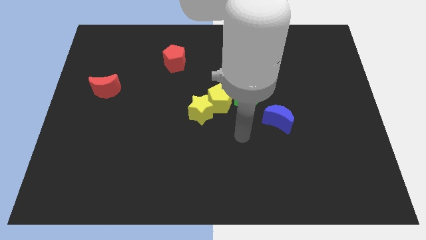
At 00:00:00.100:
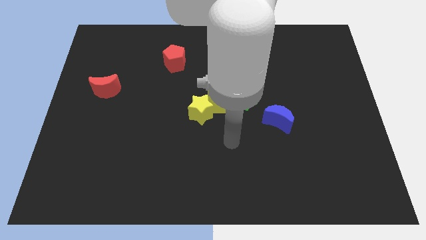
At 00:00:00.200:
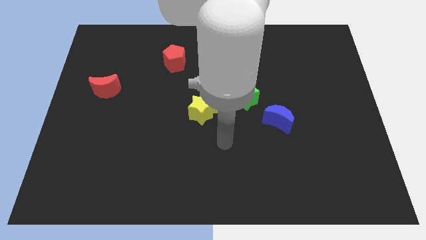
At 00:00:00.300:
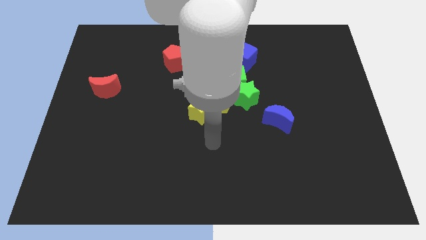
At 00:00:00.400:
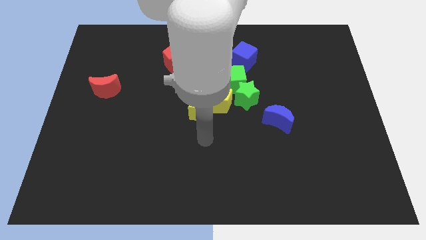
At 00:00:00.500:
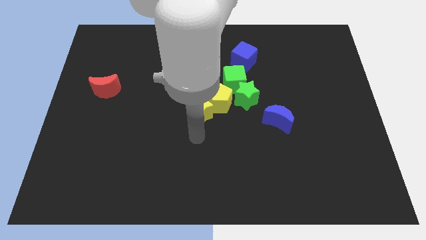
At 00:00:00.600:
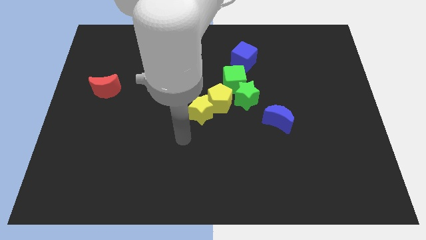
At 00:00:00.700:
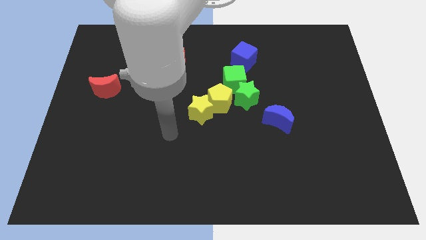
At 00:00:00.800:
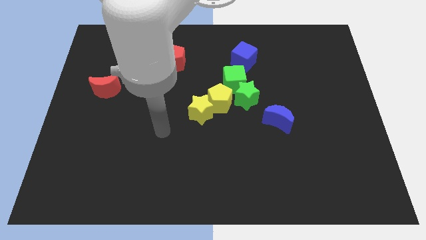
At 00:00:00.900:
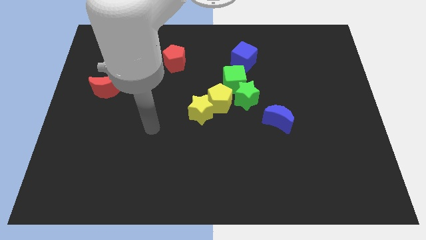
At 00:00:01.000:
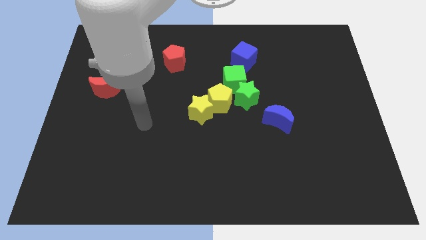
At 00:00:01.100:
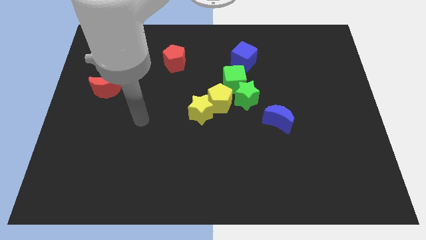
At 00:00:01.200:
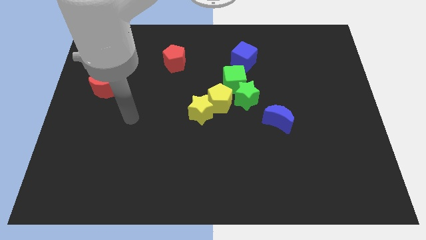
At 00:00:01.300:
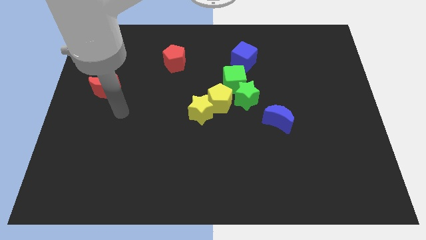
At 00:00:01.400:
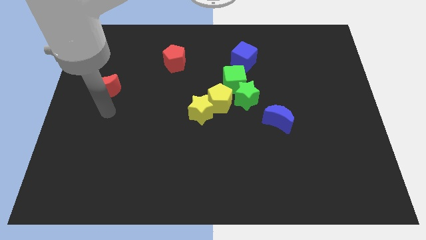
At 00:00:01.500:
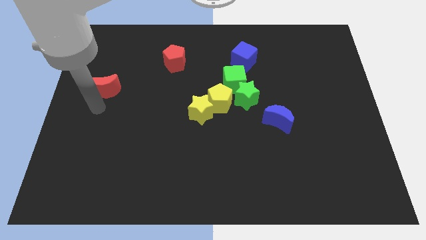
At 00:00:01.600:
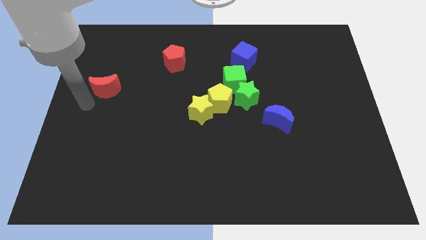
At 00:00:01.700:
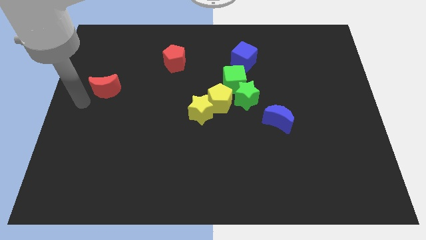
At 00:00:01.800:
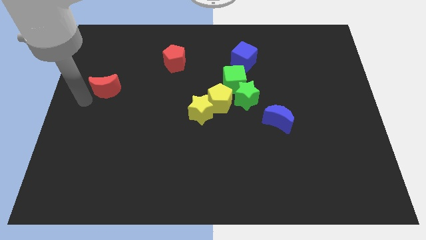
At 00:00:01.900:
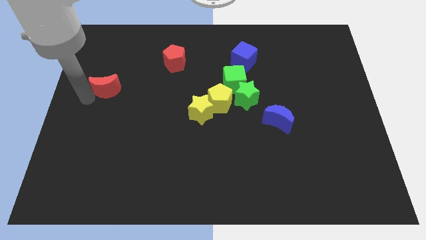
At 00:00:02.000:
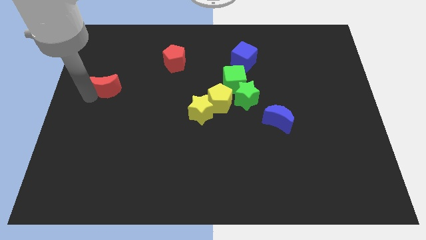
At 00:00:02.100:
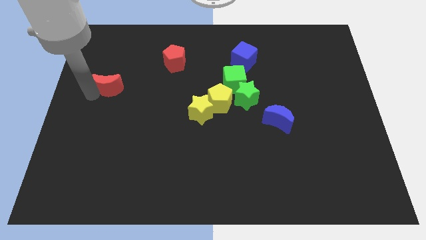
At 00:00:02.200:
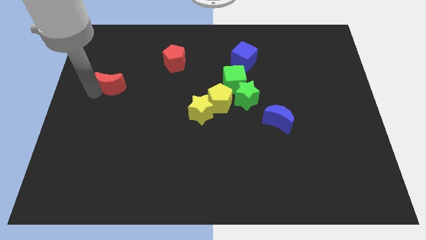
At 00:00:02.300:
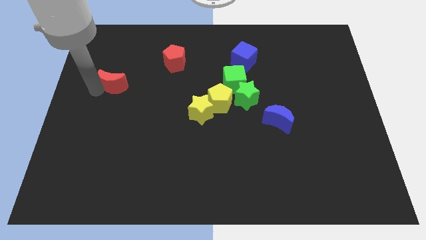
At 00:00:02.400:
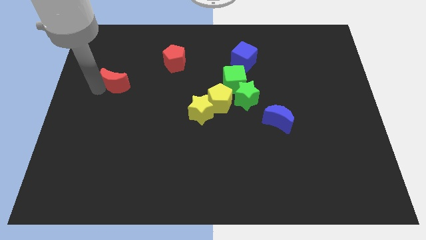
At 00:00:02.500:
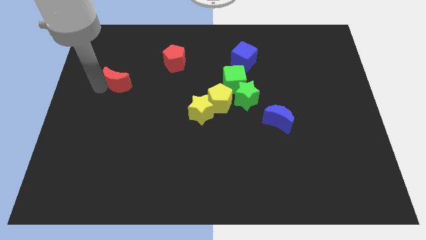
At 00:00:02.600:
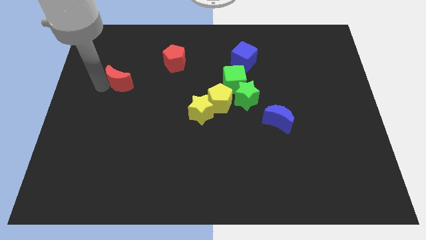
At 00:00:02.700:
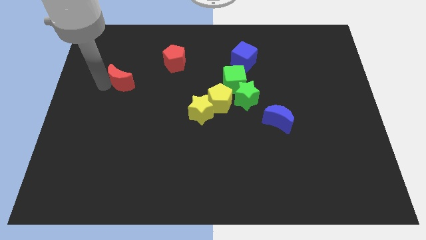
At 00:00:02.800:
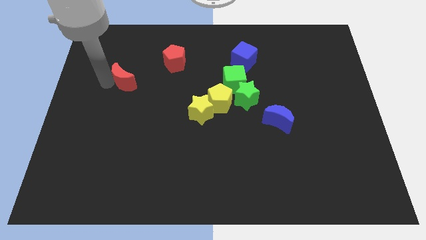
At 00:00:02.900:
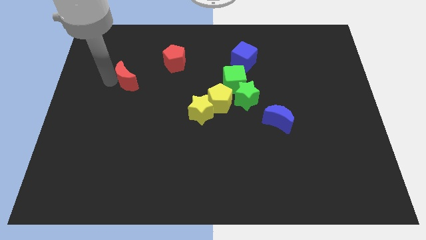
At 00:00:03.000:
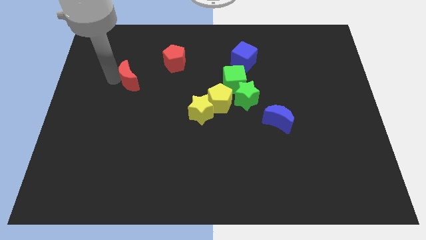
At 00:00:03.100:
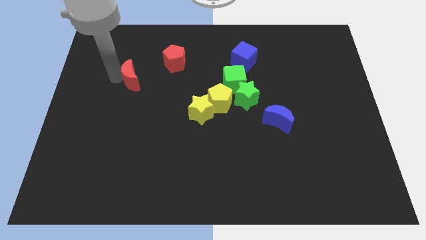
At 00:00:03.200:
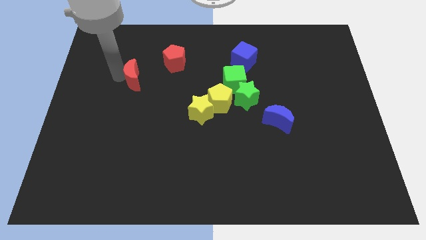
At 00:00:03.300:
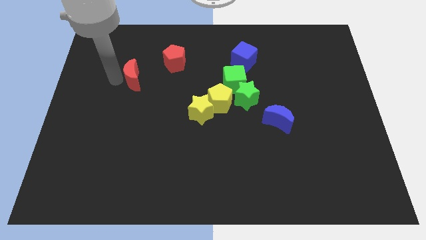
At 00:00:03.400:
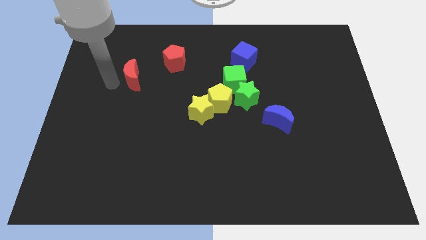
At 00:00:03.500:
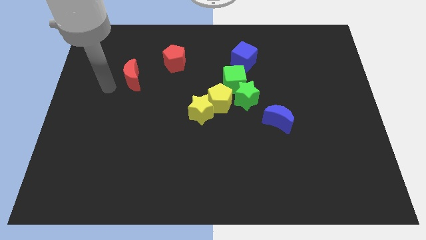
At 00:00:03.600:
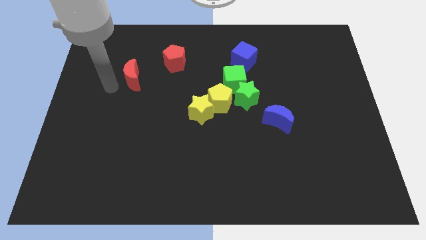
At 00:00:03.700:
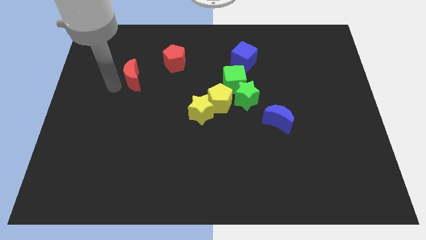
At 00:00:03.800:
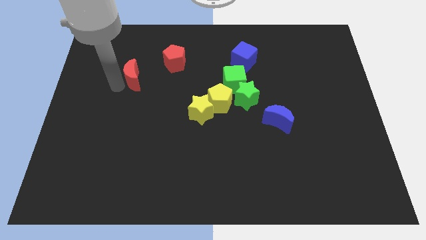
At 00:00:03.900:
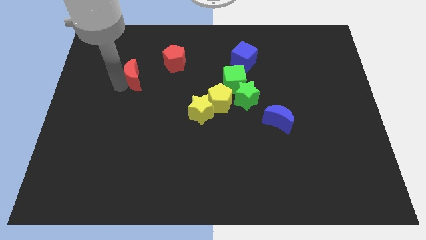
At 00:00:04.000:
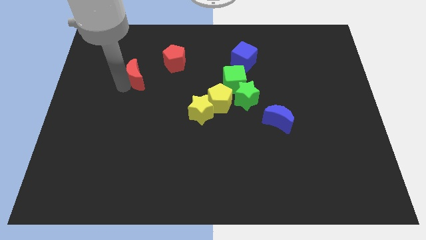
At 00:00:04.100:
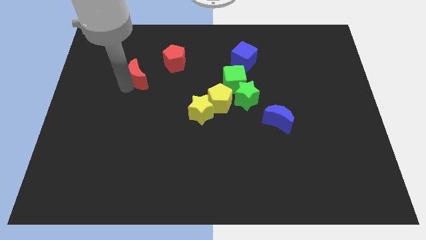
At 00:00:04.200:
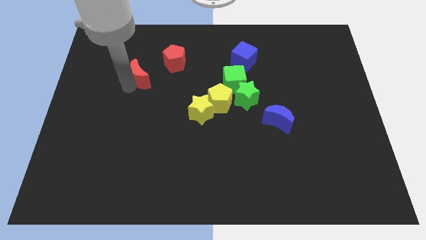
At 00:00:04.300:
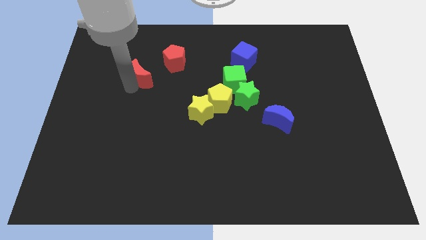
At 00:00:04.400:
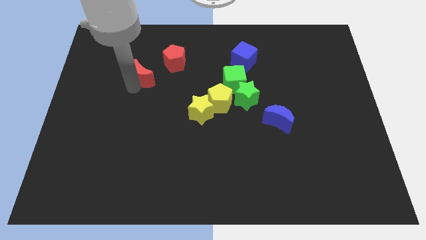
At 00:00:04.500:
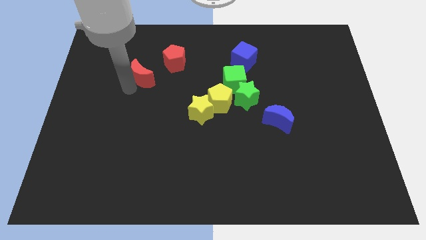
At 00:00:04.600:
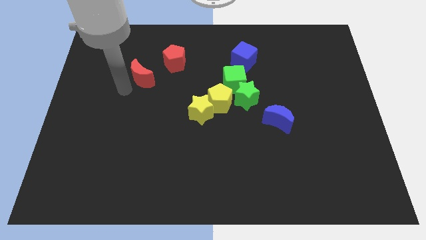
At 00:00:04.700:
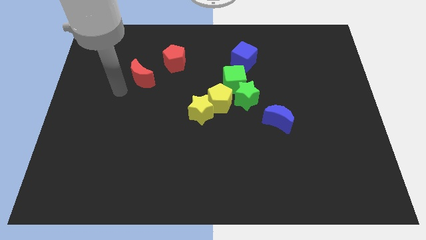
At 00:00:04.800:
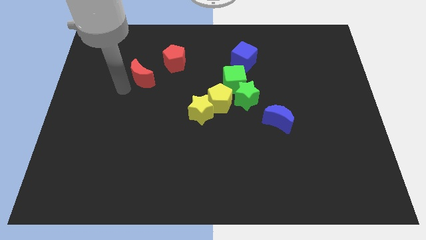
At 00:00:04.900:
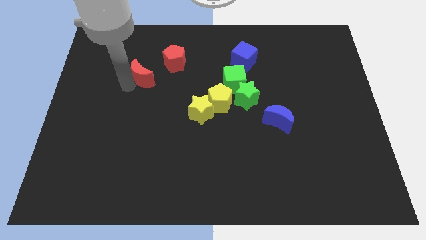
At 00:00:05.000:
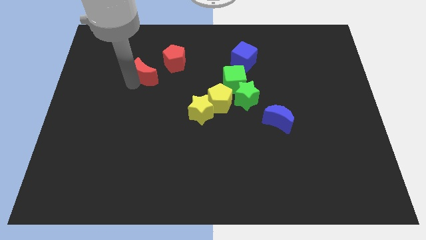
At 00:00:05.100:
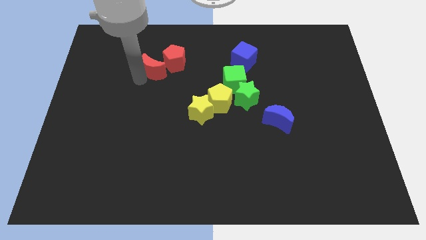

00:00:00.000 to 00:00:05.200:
move the red moon to the red pentagon
